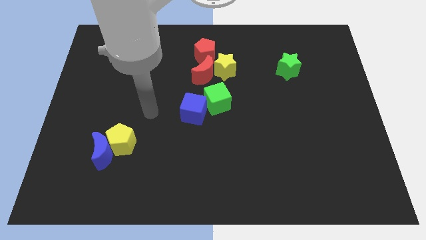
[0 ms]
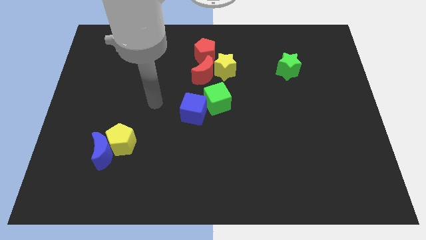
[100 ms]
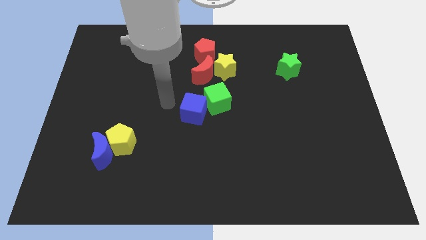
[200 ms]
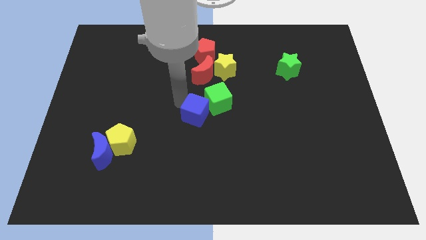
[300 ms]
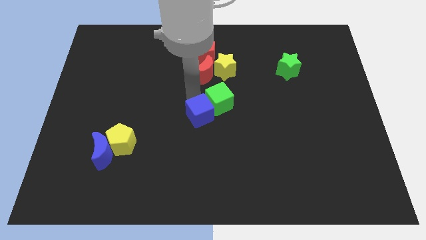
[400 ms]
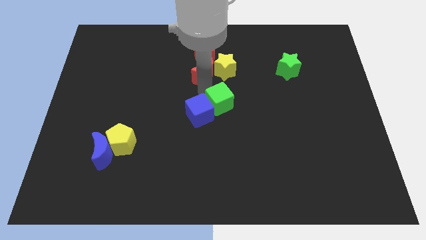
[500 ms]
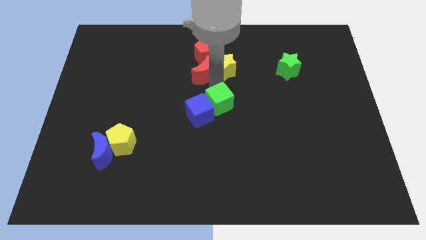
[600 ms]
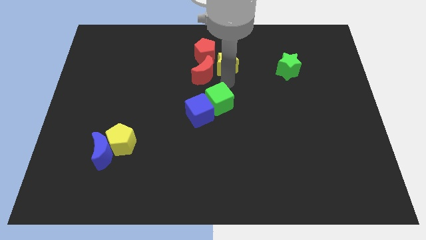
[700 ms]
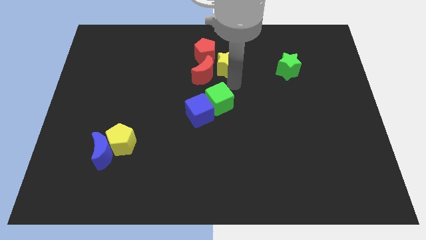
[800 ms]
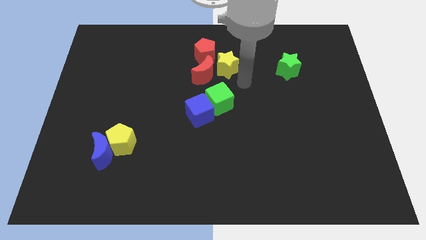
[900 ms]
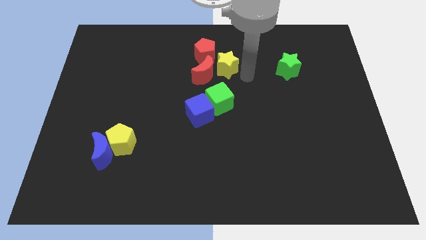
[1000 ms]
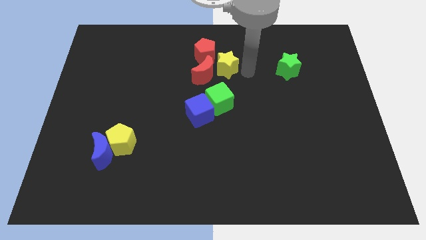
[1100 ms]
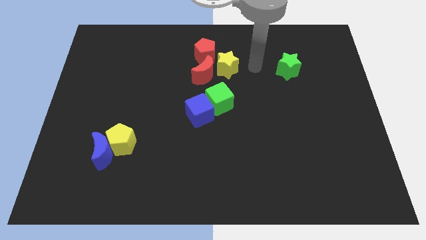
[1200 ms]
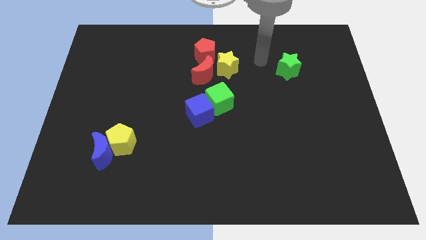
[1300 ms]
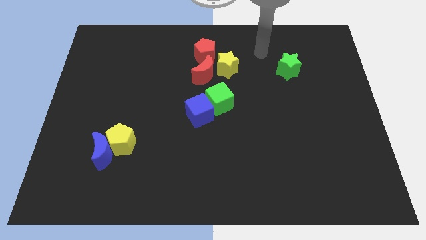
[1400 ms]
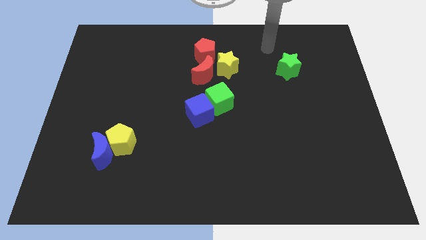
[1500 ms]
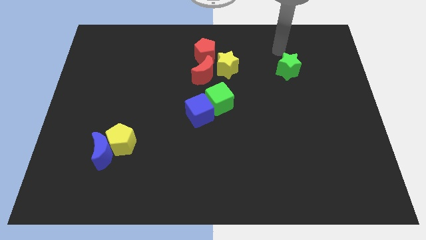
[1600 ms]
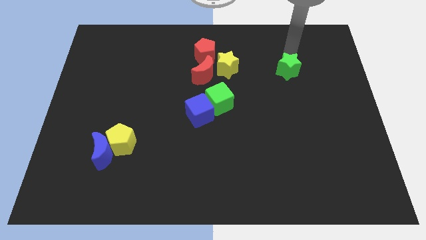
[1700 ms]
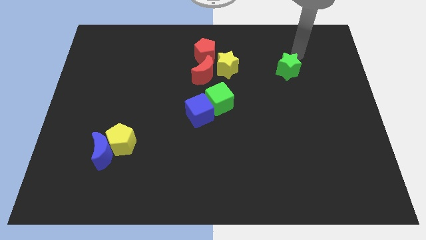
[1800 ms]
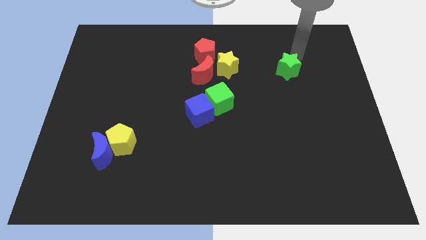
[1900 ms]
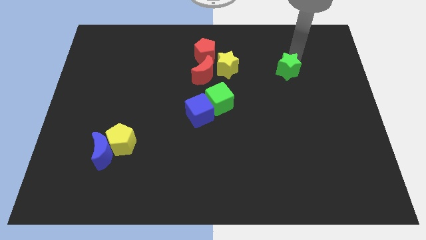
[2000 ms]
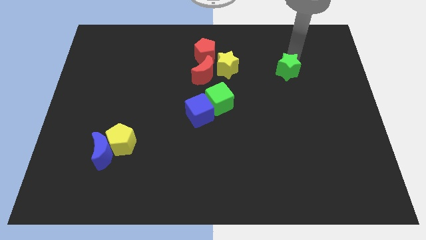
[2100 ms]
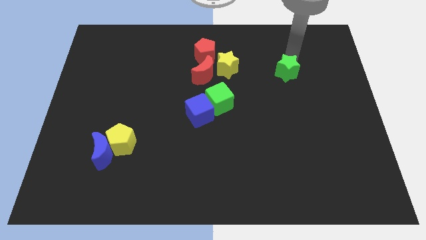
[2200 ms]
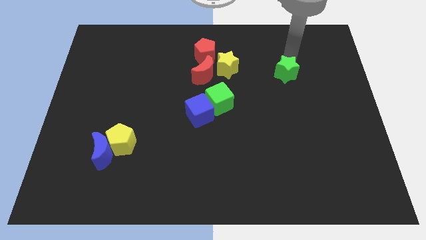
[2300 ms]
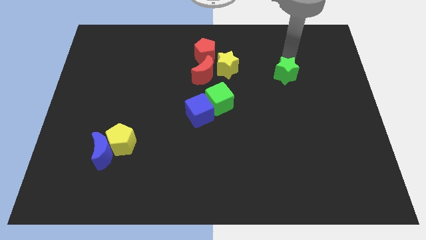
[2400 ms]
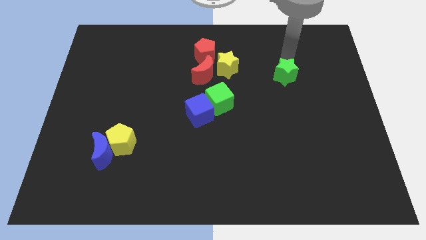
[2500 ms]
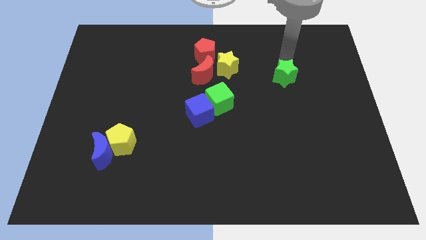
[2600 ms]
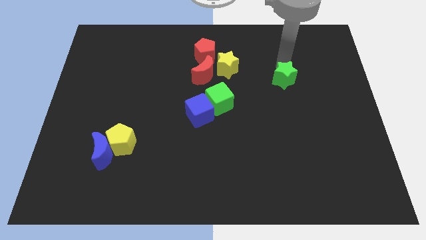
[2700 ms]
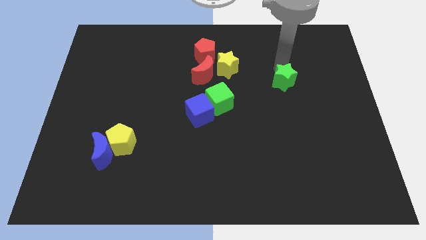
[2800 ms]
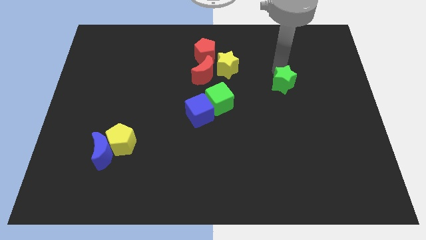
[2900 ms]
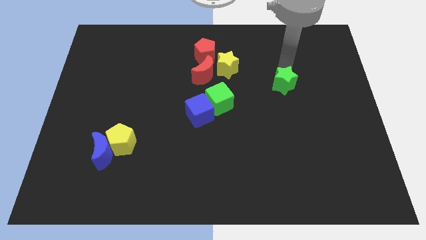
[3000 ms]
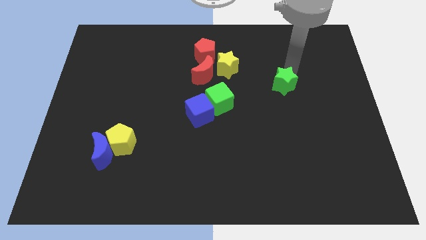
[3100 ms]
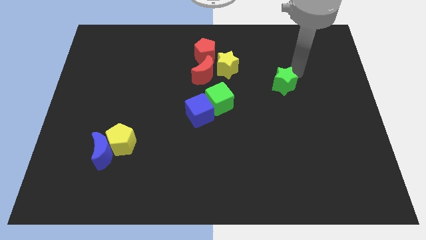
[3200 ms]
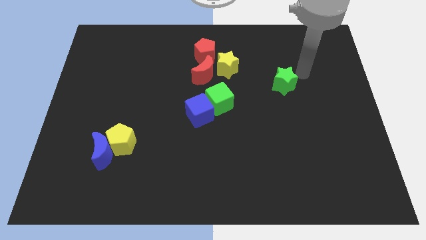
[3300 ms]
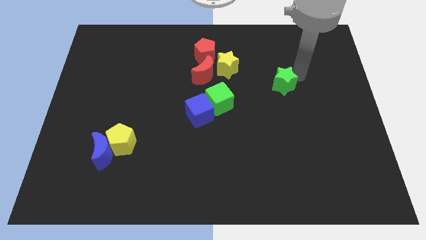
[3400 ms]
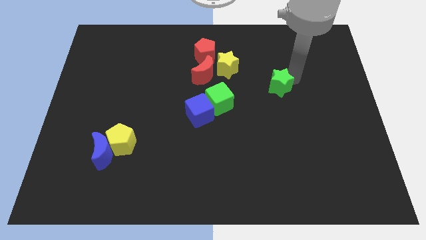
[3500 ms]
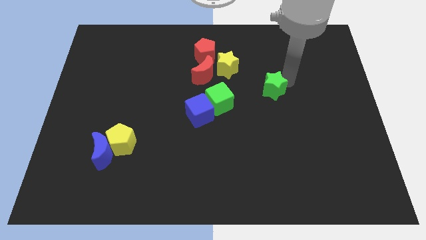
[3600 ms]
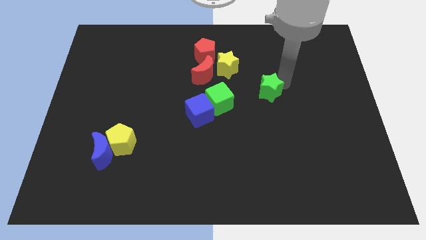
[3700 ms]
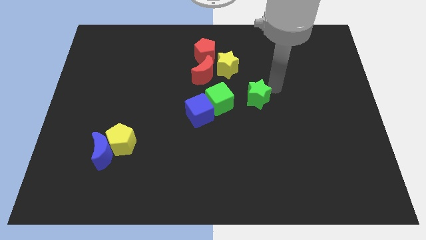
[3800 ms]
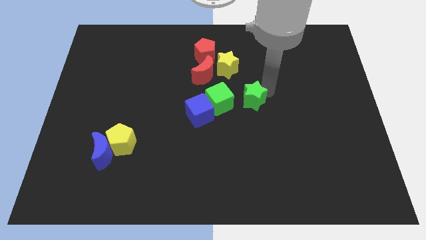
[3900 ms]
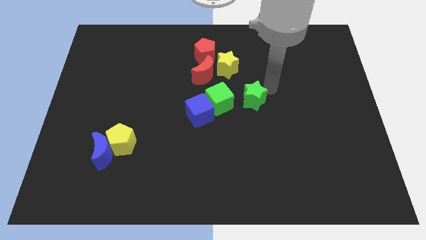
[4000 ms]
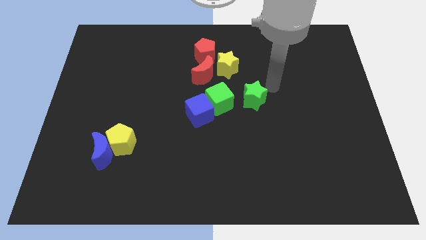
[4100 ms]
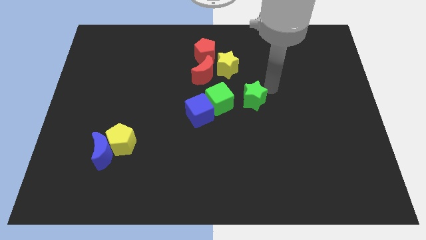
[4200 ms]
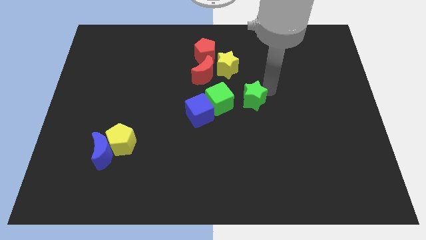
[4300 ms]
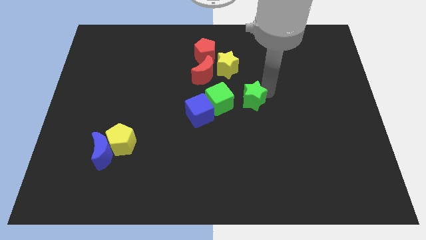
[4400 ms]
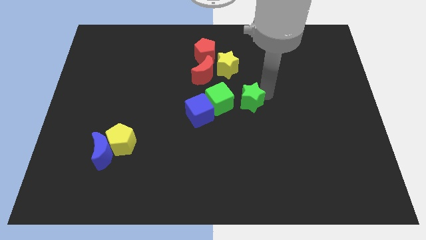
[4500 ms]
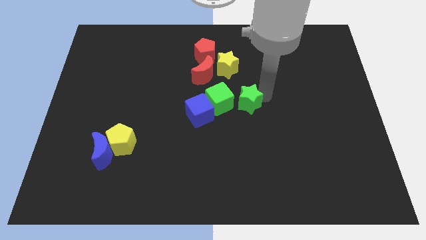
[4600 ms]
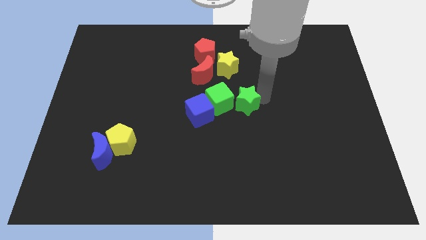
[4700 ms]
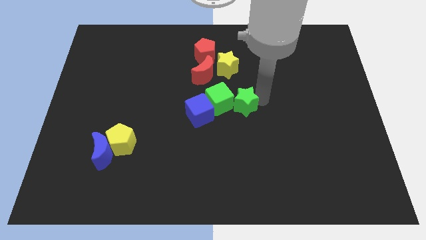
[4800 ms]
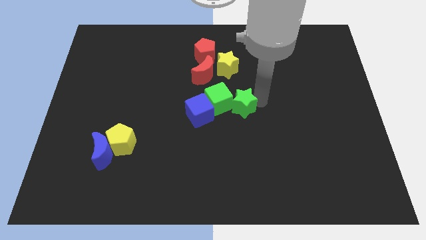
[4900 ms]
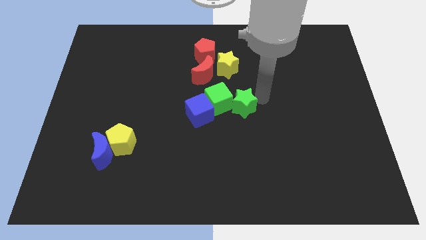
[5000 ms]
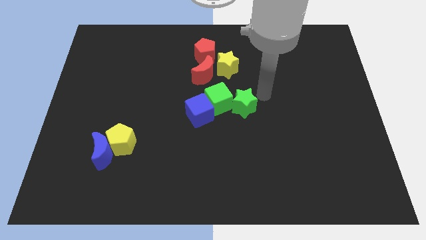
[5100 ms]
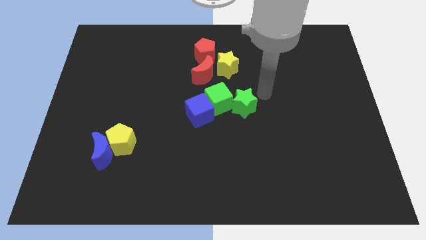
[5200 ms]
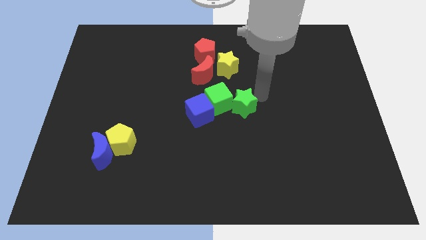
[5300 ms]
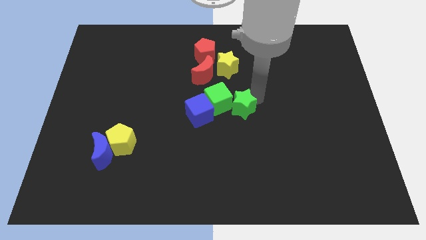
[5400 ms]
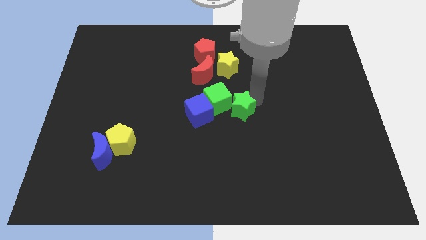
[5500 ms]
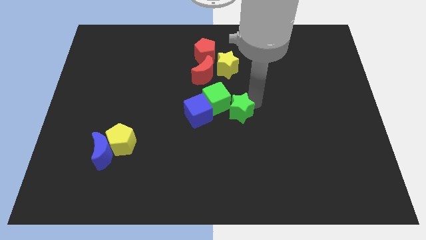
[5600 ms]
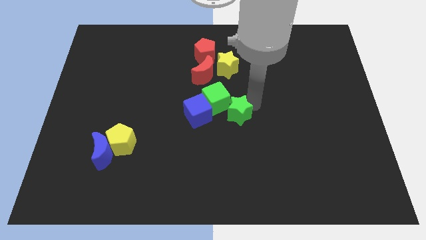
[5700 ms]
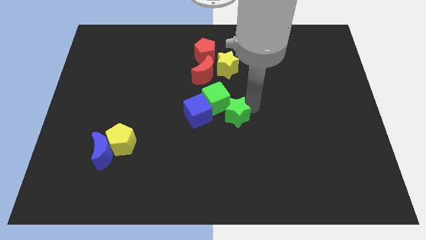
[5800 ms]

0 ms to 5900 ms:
push the green star down and then to the left

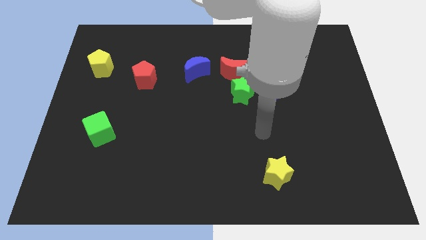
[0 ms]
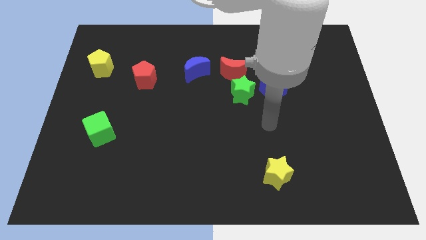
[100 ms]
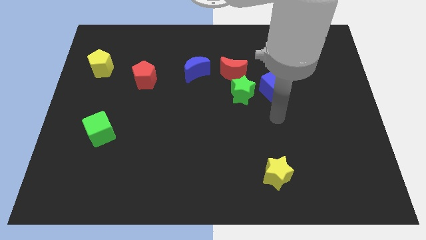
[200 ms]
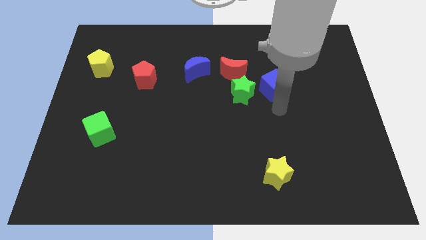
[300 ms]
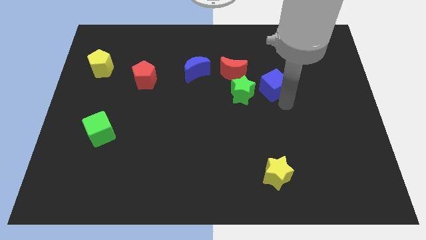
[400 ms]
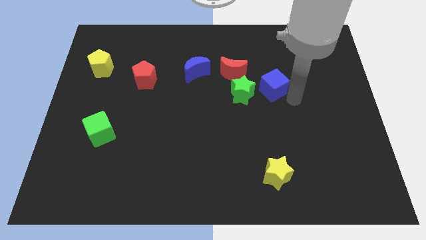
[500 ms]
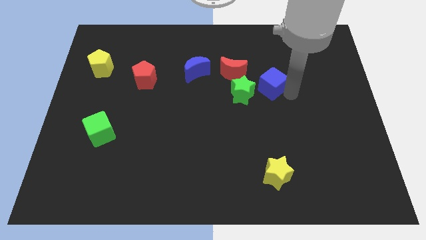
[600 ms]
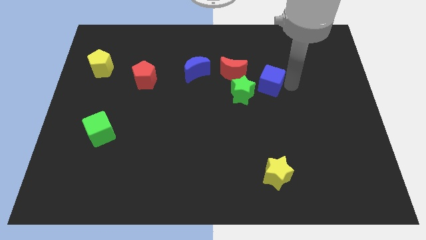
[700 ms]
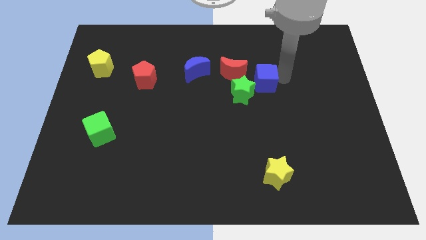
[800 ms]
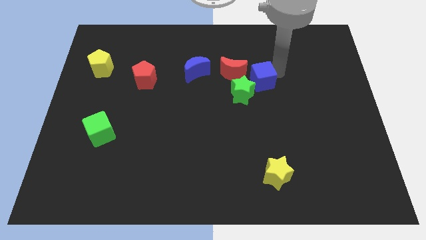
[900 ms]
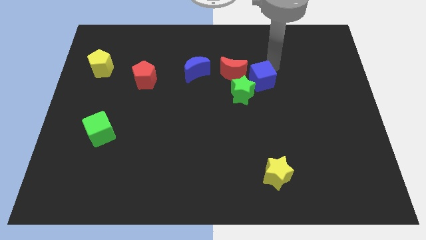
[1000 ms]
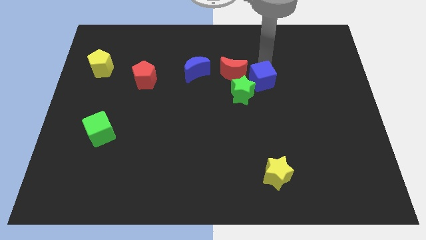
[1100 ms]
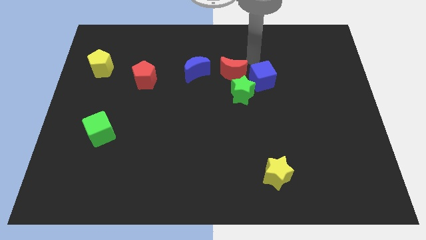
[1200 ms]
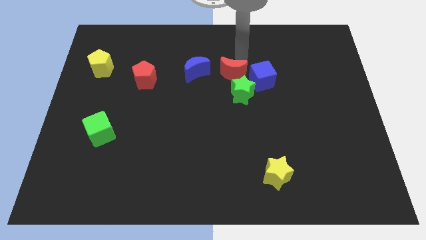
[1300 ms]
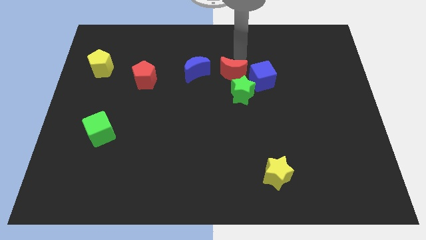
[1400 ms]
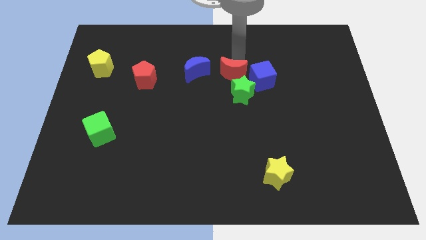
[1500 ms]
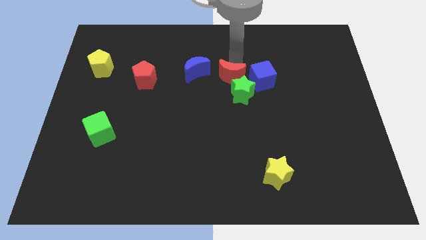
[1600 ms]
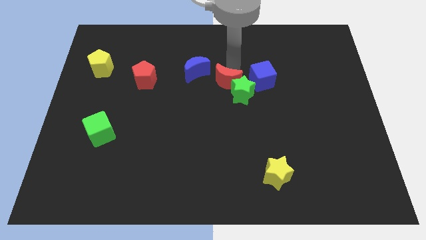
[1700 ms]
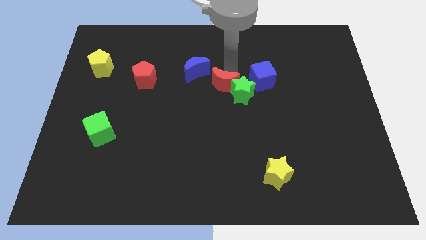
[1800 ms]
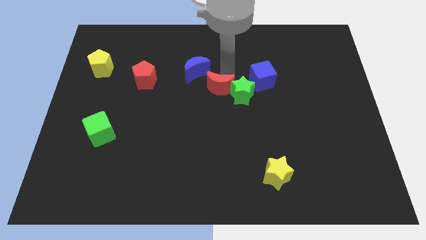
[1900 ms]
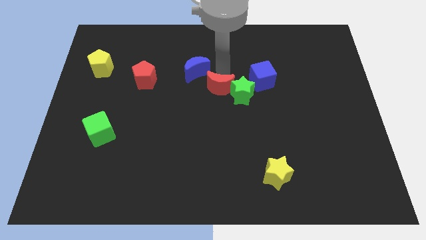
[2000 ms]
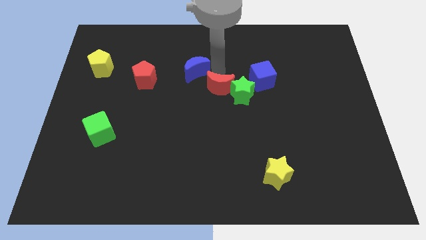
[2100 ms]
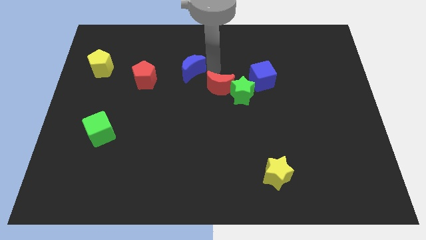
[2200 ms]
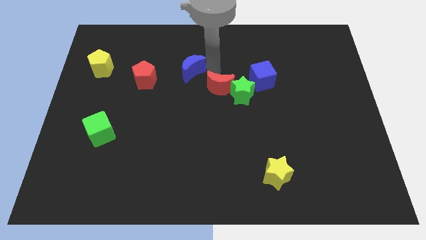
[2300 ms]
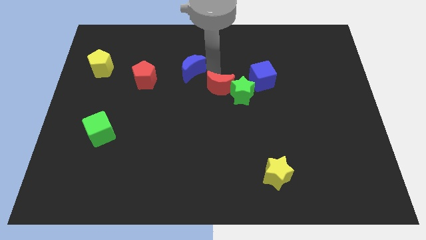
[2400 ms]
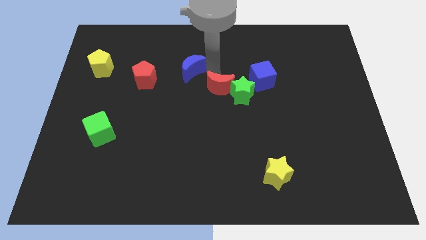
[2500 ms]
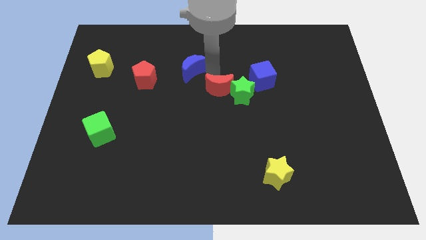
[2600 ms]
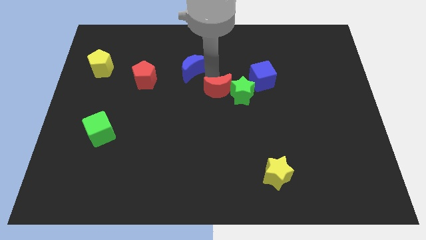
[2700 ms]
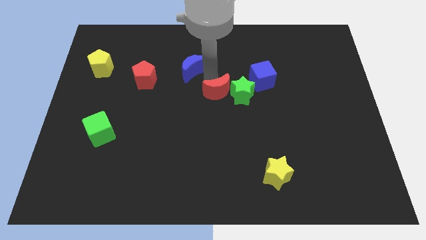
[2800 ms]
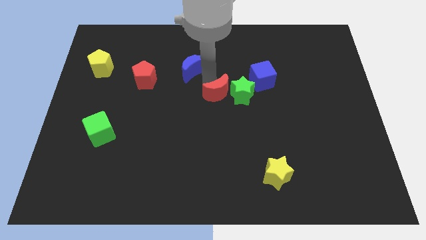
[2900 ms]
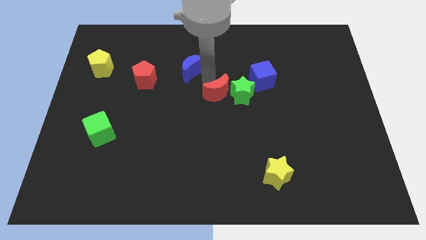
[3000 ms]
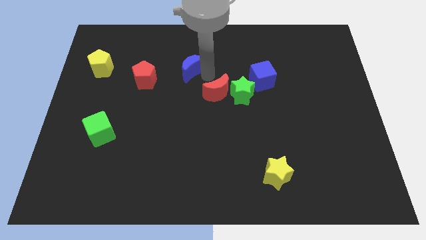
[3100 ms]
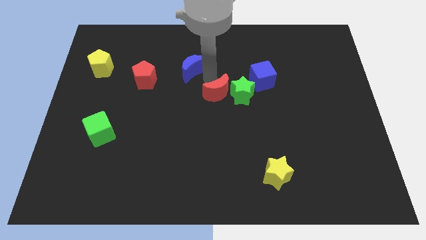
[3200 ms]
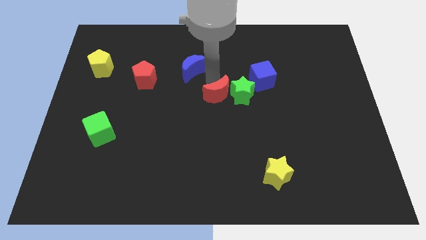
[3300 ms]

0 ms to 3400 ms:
slightly move the red moon downwards
